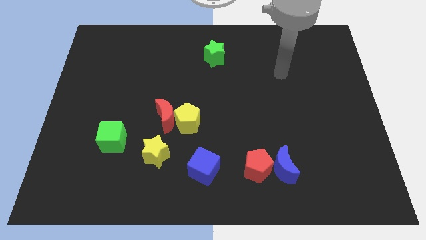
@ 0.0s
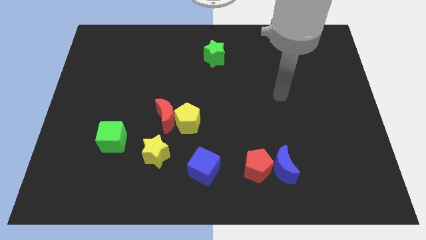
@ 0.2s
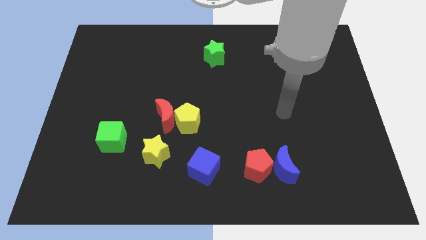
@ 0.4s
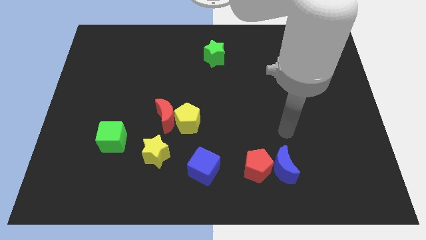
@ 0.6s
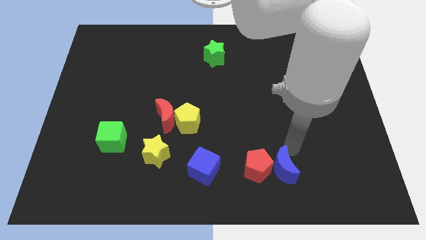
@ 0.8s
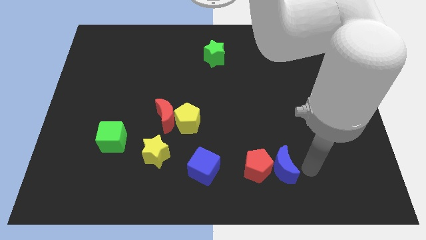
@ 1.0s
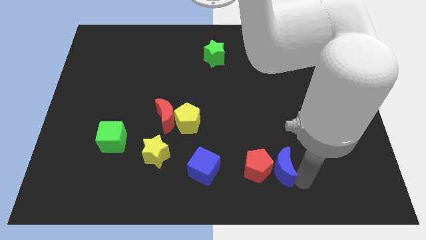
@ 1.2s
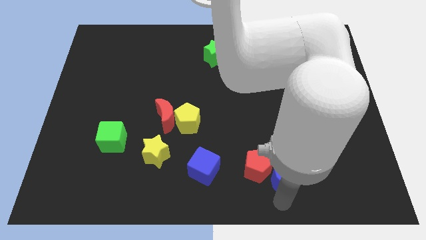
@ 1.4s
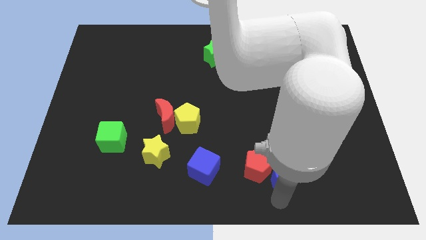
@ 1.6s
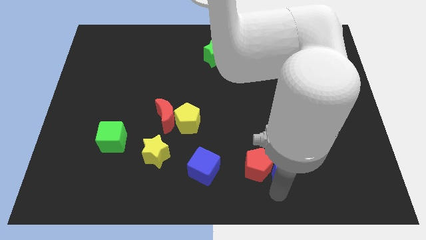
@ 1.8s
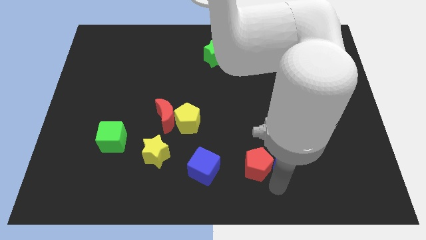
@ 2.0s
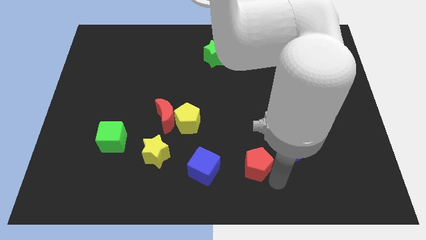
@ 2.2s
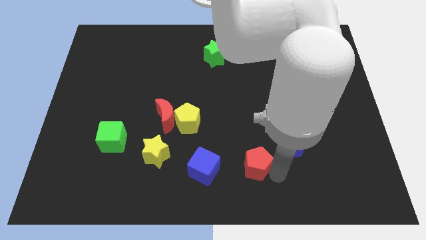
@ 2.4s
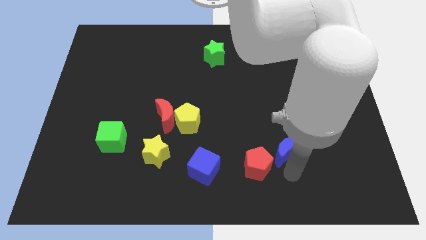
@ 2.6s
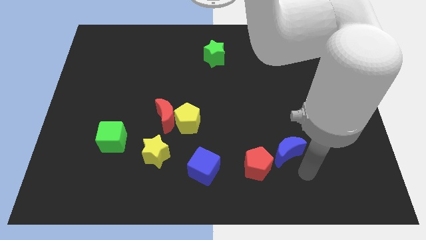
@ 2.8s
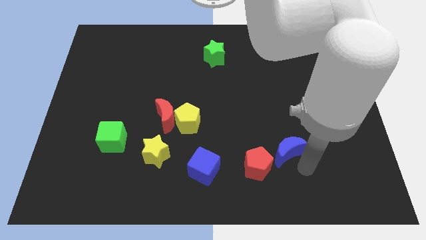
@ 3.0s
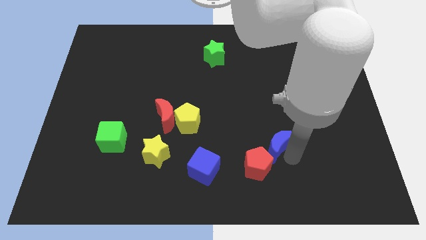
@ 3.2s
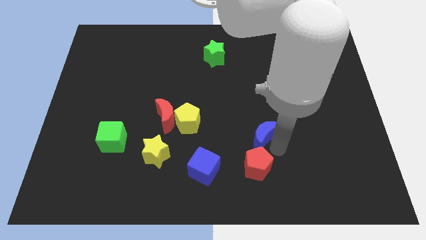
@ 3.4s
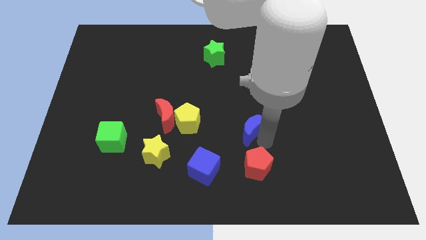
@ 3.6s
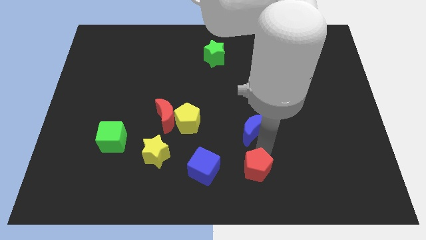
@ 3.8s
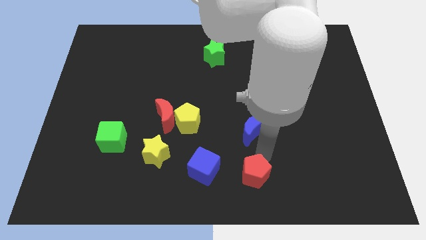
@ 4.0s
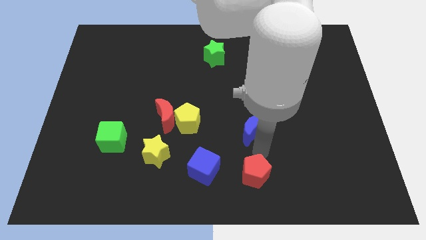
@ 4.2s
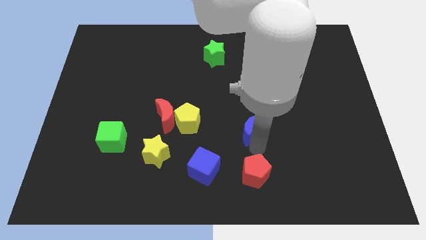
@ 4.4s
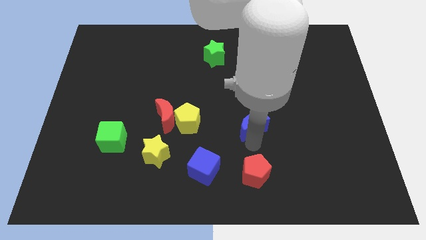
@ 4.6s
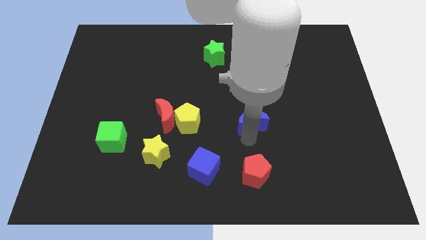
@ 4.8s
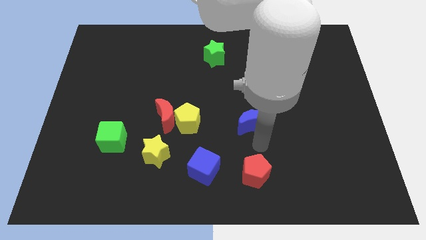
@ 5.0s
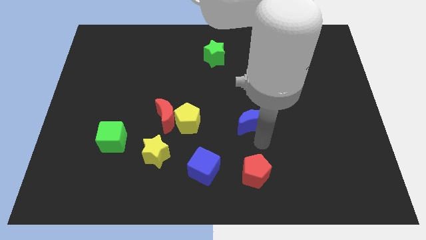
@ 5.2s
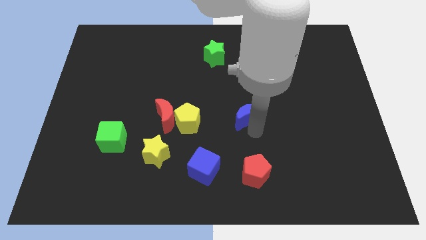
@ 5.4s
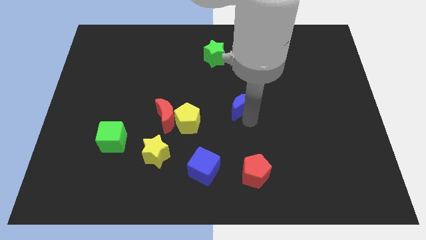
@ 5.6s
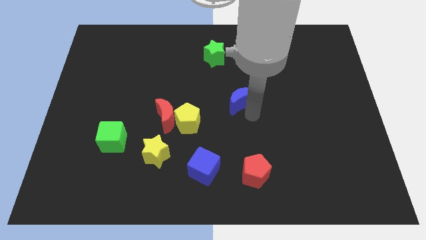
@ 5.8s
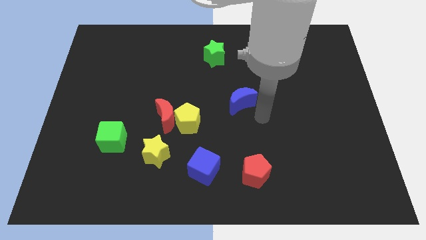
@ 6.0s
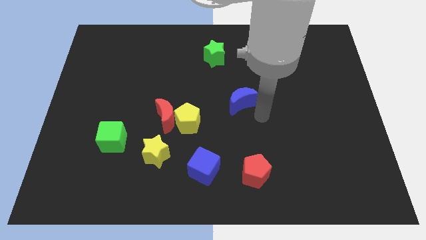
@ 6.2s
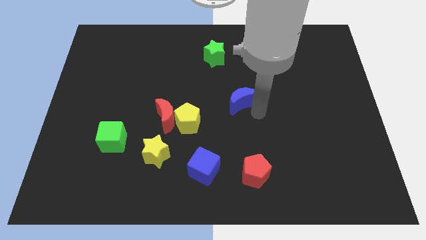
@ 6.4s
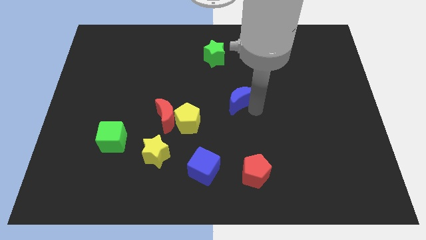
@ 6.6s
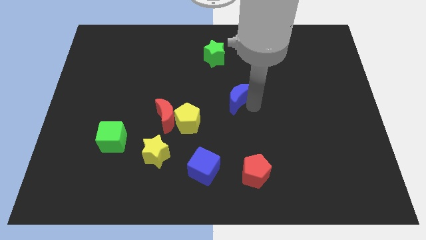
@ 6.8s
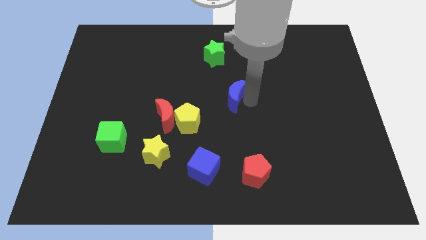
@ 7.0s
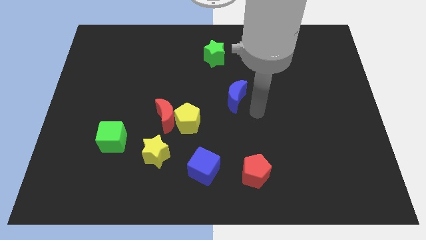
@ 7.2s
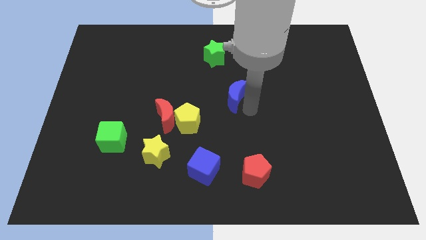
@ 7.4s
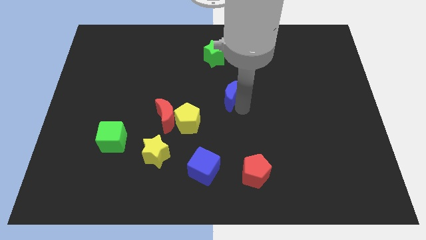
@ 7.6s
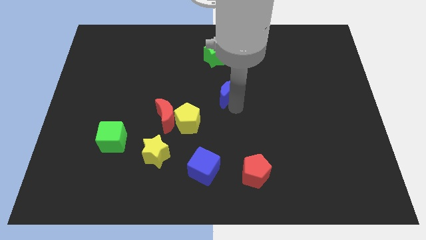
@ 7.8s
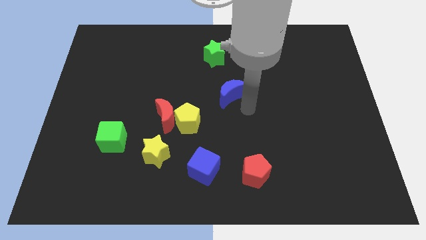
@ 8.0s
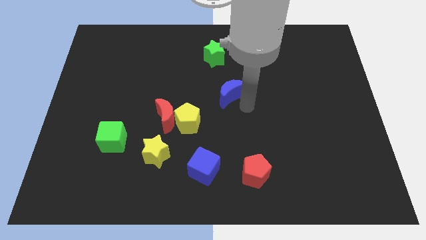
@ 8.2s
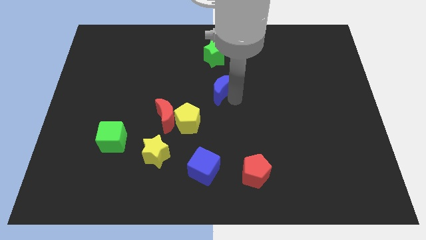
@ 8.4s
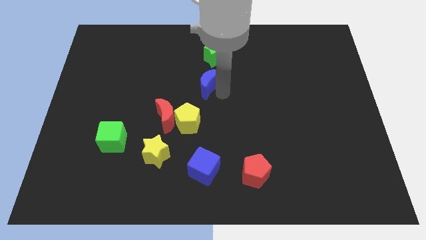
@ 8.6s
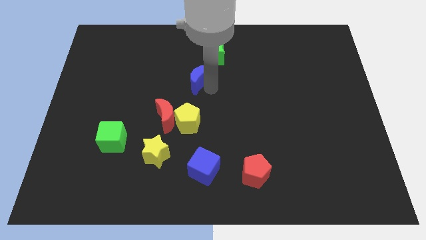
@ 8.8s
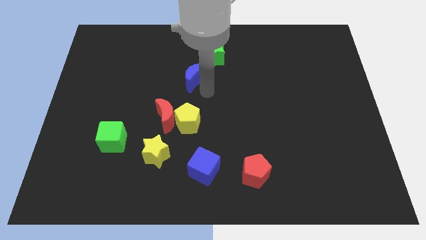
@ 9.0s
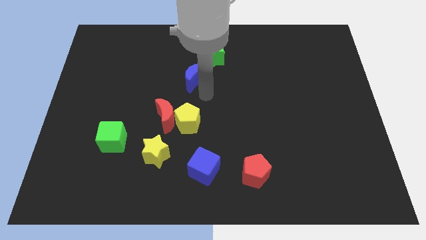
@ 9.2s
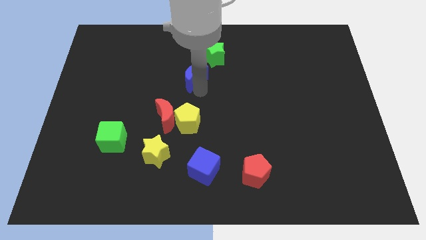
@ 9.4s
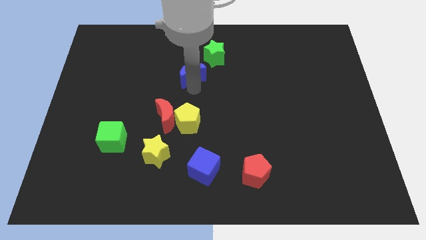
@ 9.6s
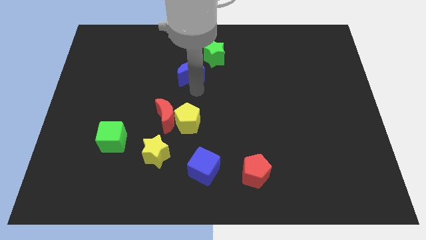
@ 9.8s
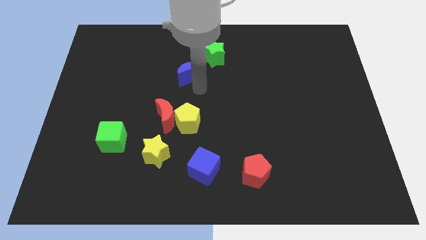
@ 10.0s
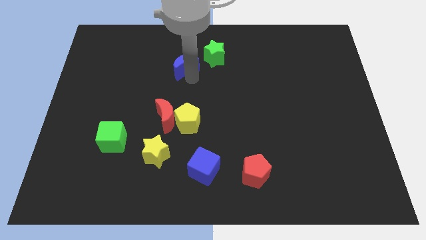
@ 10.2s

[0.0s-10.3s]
push the blue moon to the left side of the green star

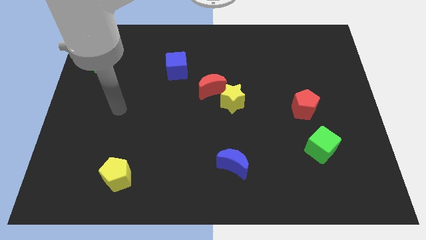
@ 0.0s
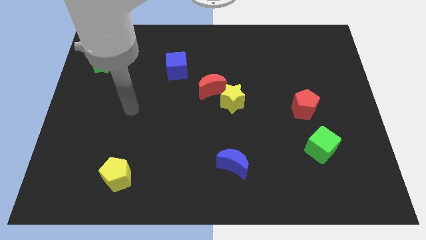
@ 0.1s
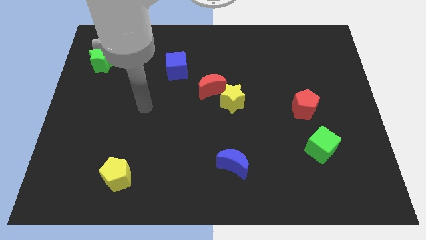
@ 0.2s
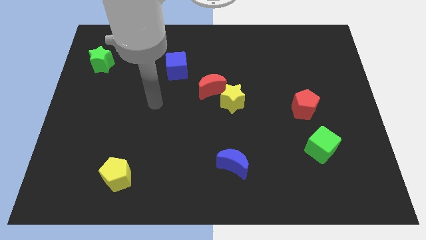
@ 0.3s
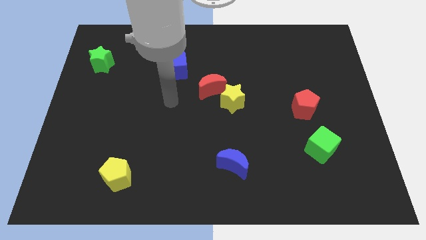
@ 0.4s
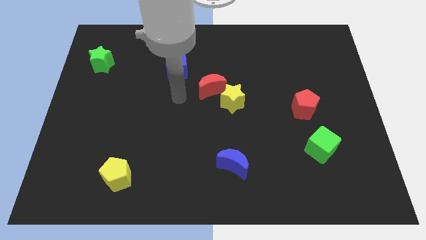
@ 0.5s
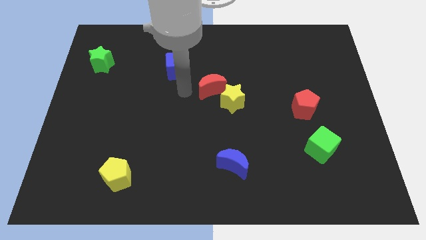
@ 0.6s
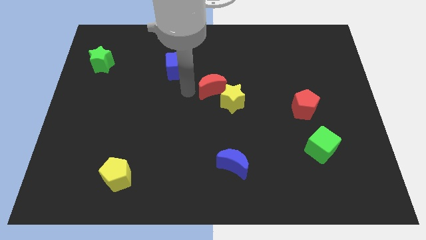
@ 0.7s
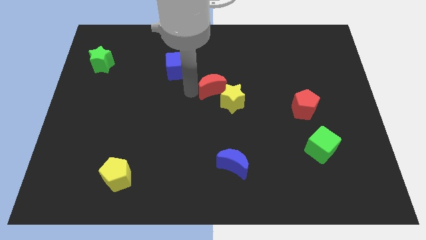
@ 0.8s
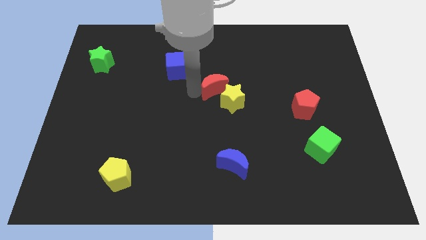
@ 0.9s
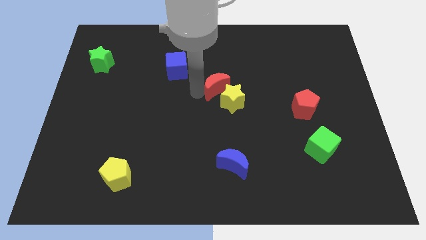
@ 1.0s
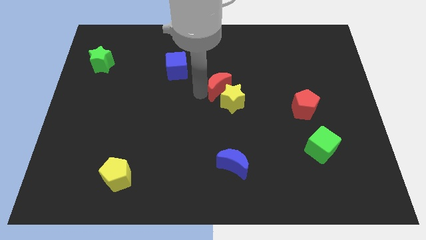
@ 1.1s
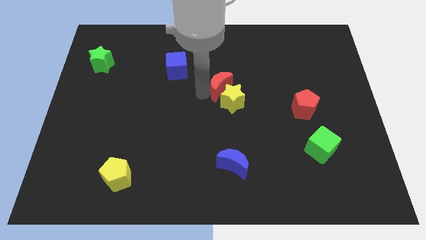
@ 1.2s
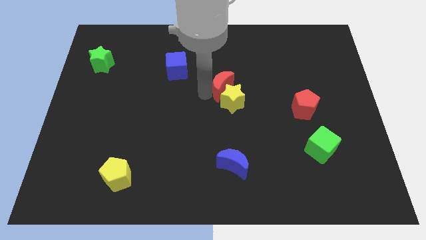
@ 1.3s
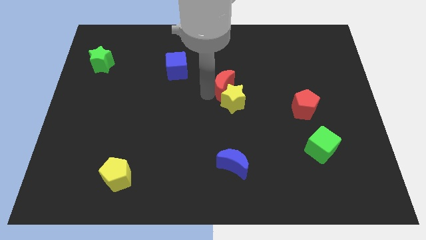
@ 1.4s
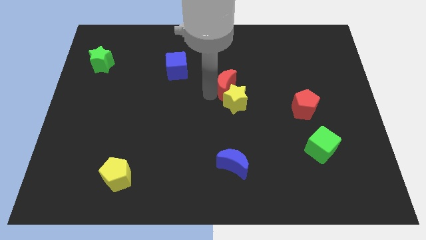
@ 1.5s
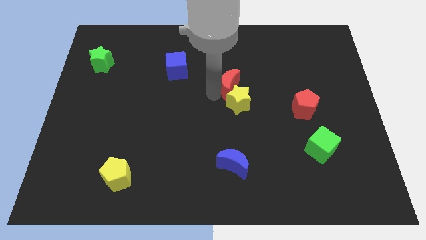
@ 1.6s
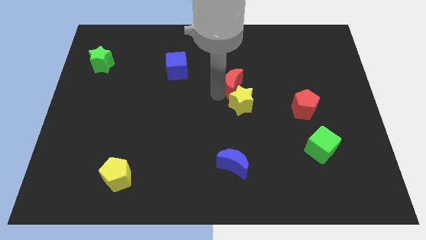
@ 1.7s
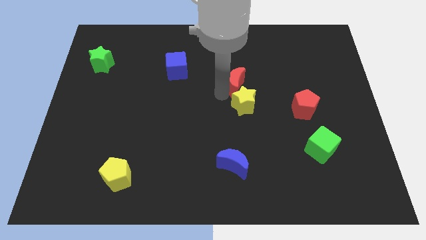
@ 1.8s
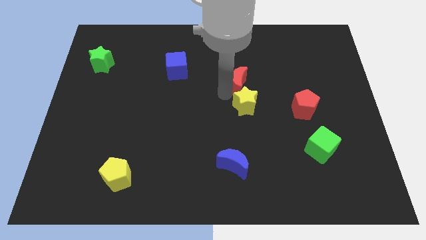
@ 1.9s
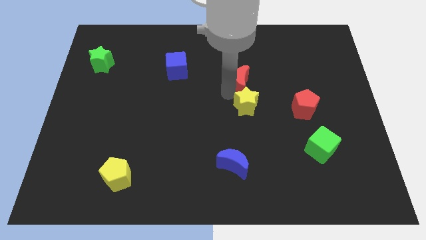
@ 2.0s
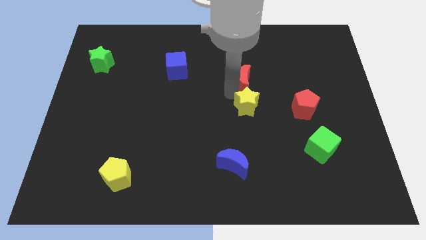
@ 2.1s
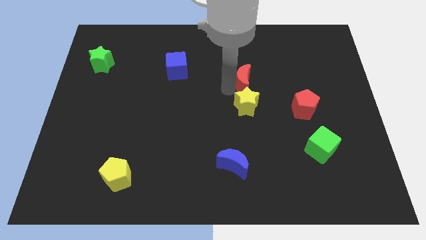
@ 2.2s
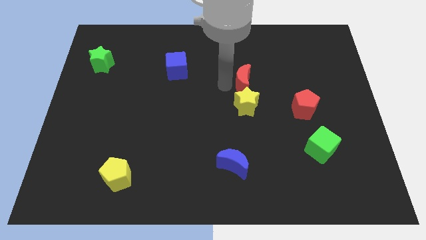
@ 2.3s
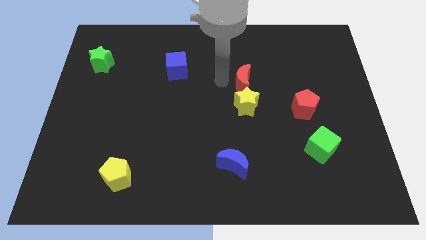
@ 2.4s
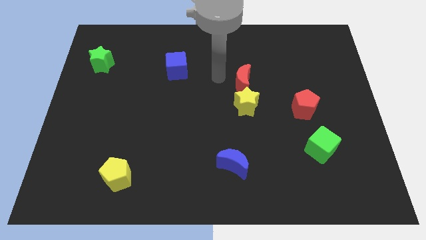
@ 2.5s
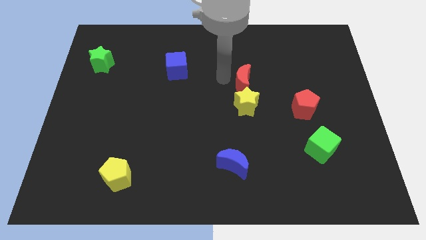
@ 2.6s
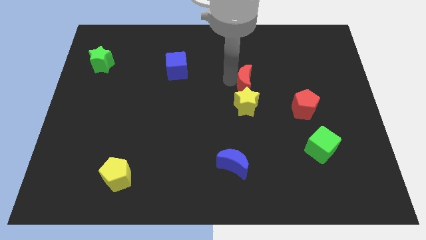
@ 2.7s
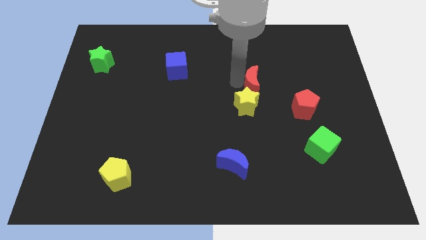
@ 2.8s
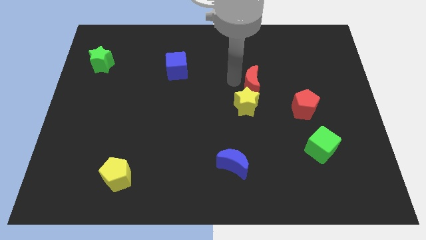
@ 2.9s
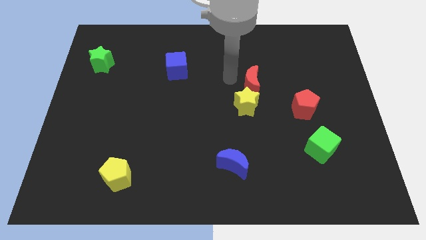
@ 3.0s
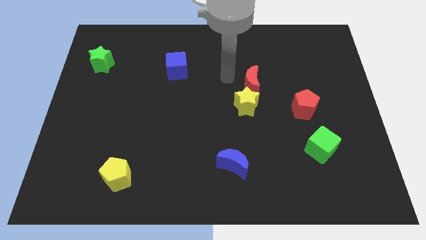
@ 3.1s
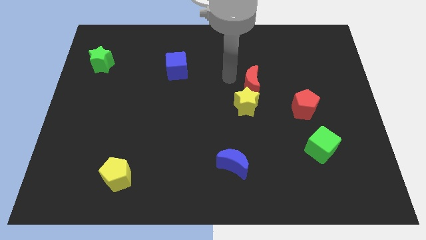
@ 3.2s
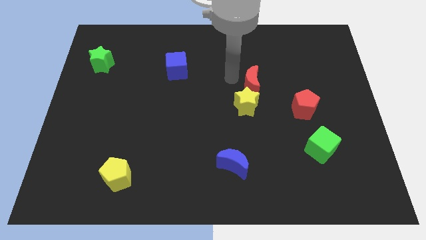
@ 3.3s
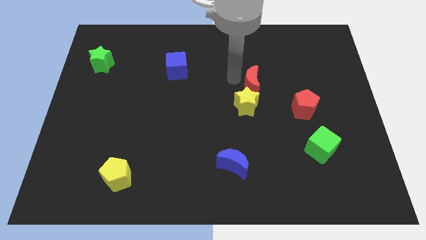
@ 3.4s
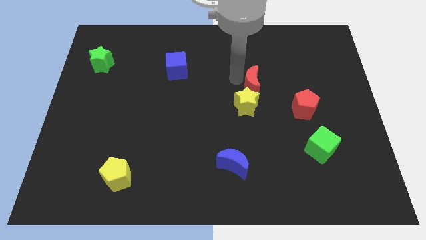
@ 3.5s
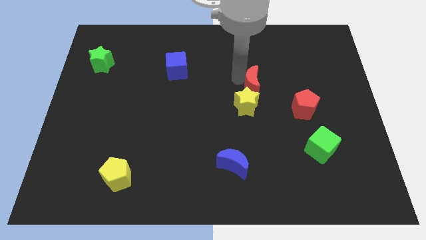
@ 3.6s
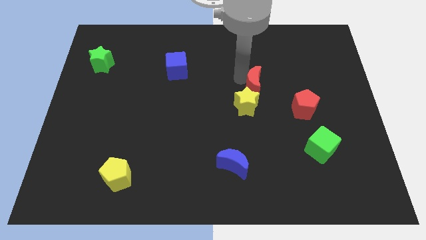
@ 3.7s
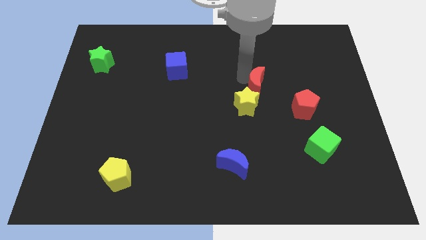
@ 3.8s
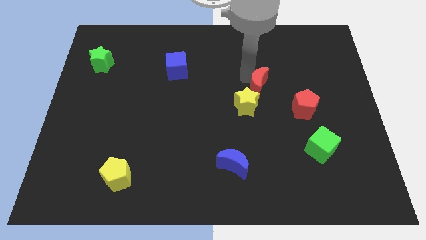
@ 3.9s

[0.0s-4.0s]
put the red moon to the top left of the red pentagon
